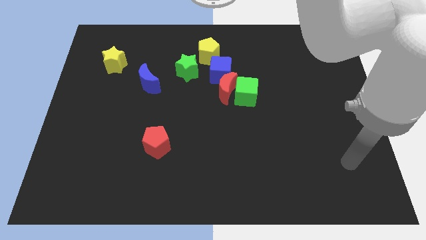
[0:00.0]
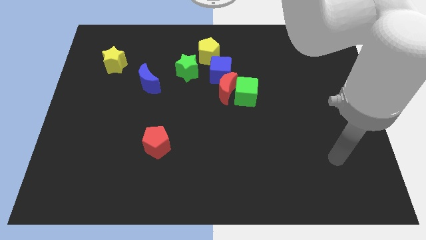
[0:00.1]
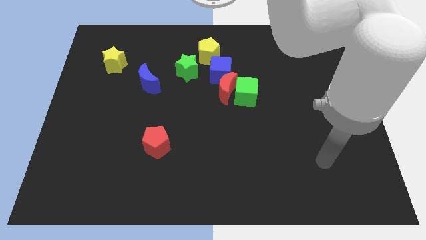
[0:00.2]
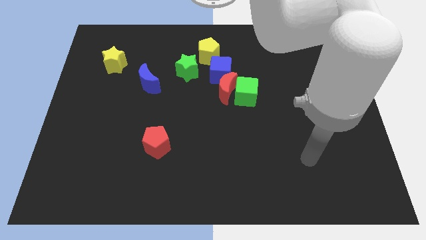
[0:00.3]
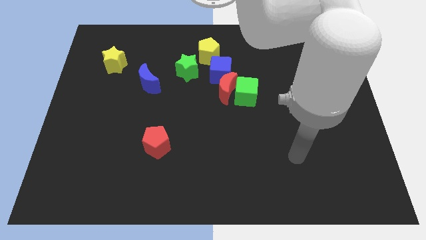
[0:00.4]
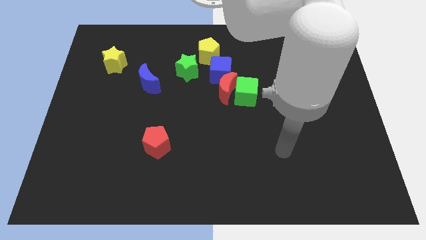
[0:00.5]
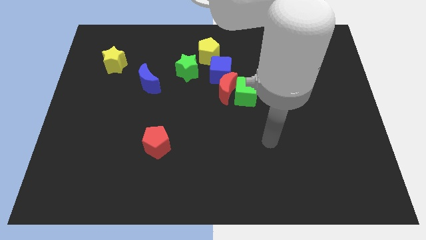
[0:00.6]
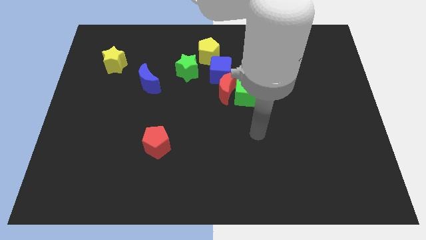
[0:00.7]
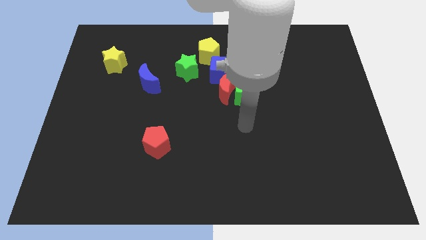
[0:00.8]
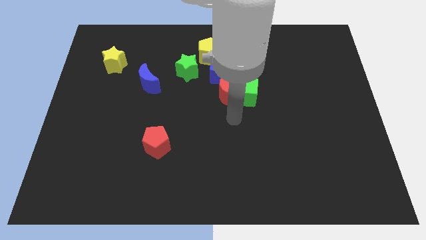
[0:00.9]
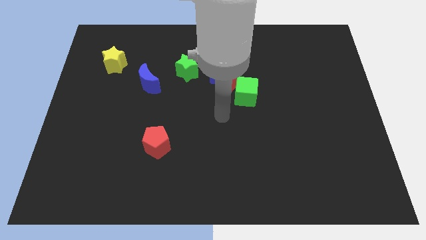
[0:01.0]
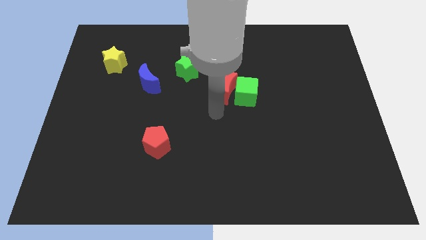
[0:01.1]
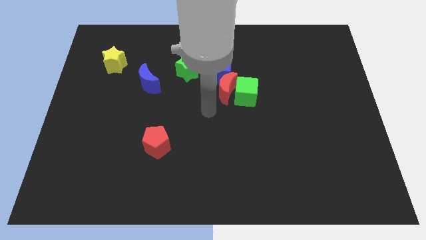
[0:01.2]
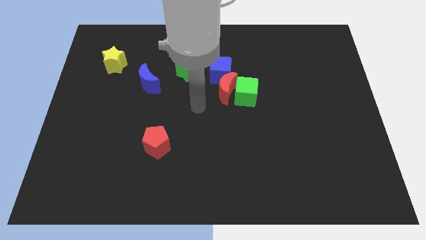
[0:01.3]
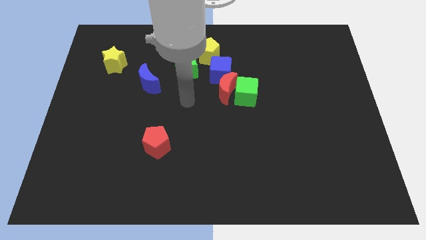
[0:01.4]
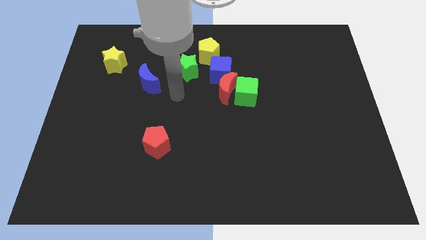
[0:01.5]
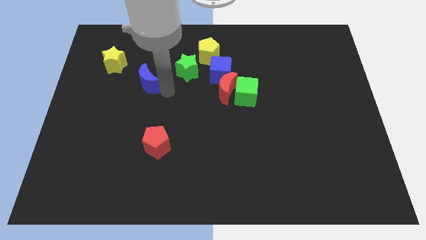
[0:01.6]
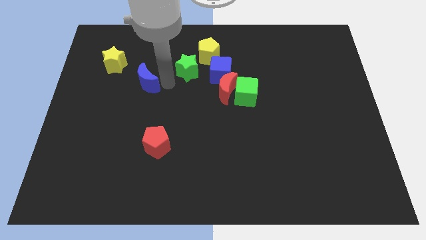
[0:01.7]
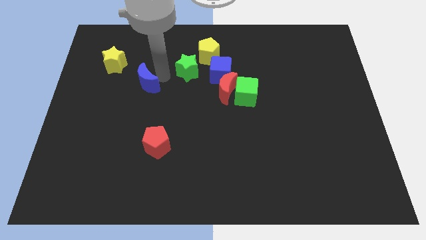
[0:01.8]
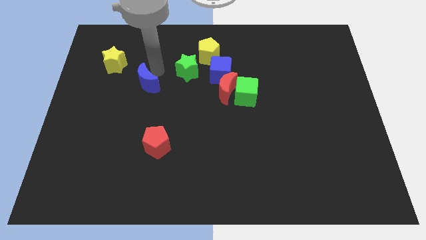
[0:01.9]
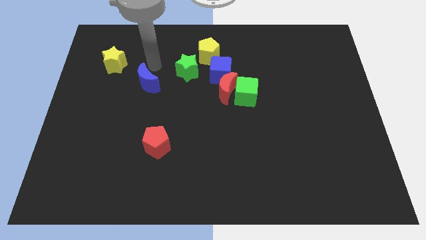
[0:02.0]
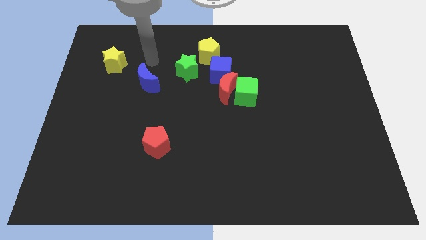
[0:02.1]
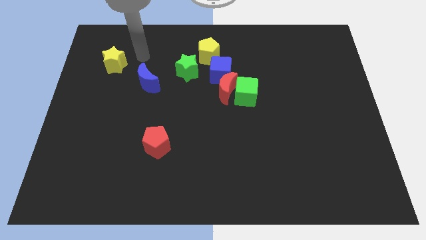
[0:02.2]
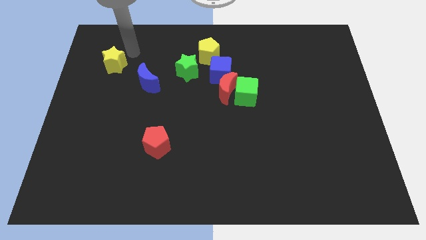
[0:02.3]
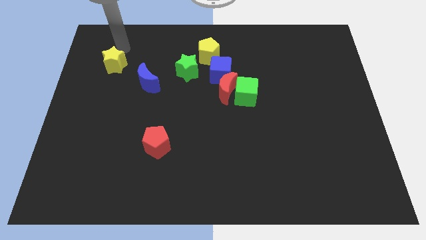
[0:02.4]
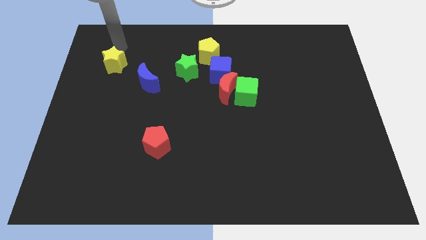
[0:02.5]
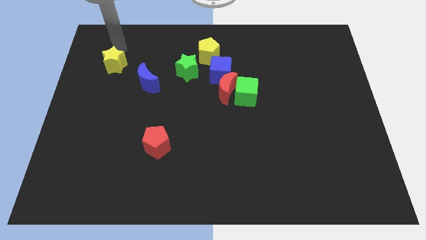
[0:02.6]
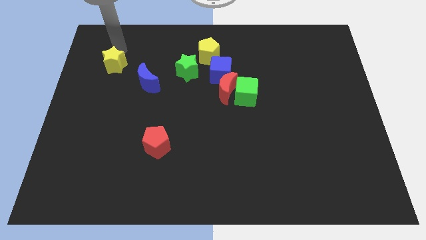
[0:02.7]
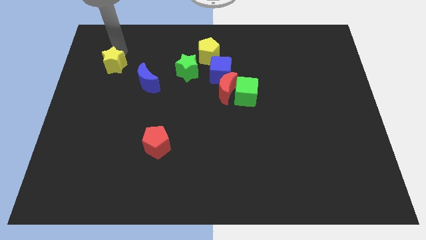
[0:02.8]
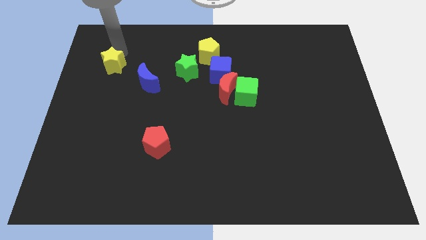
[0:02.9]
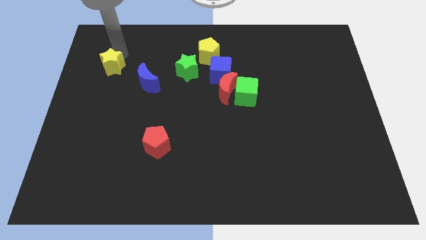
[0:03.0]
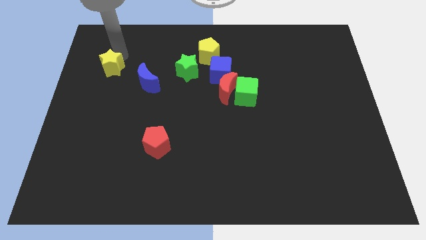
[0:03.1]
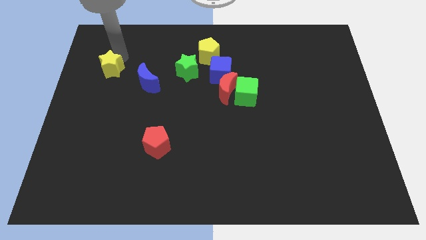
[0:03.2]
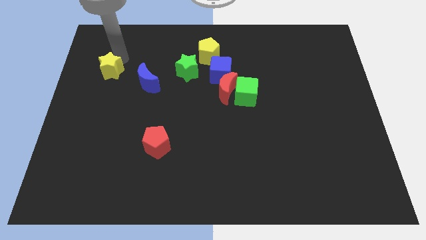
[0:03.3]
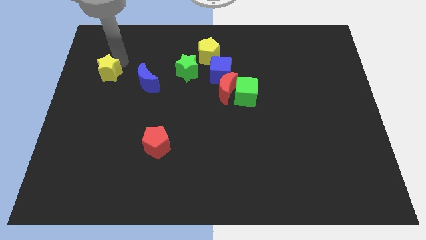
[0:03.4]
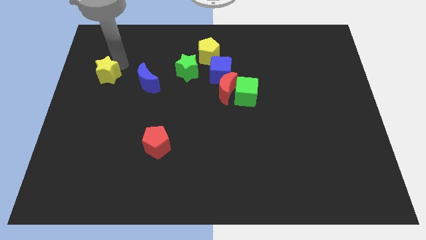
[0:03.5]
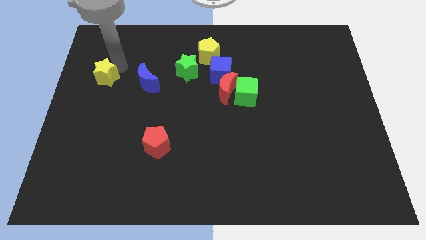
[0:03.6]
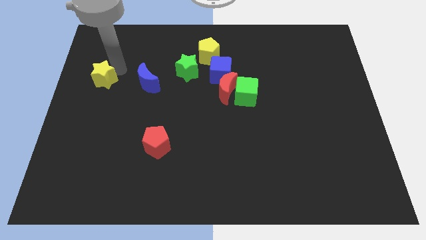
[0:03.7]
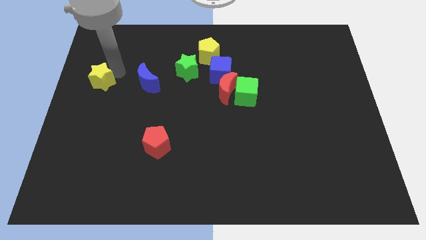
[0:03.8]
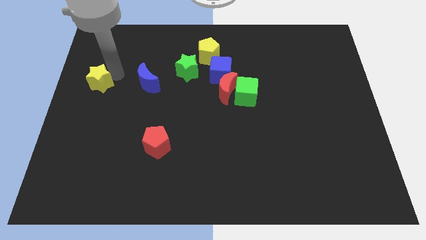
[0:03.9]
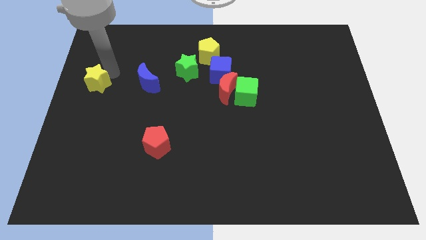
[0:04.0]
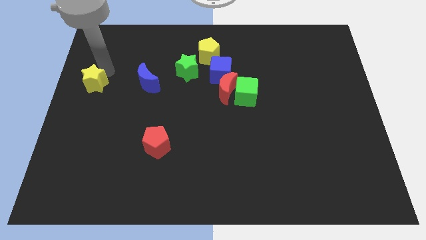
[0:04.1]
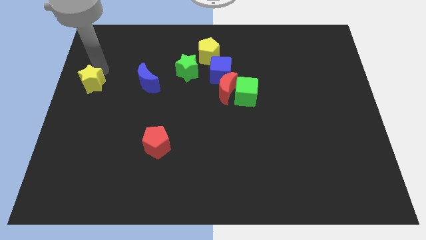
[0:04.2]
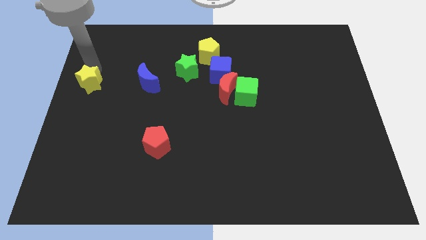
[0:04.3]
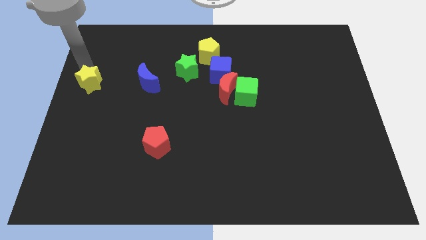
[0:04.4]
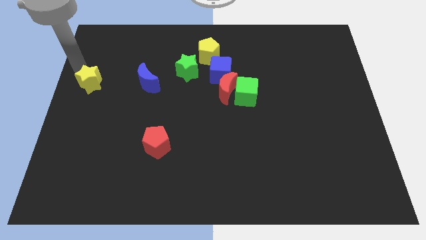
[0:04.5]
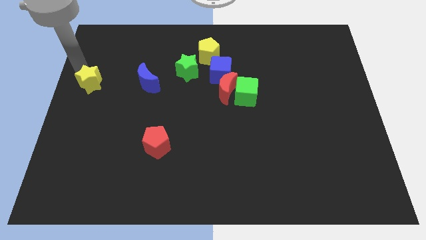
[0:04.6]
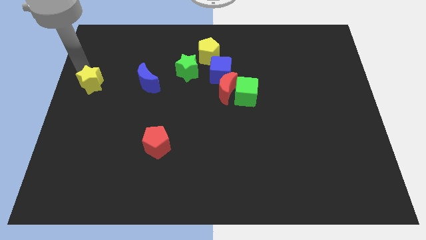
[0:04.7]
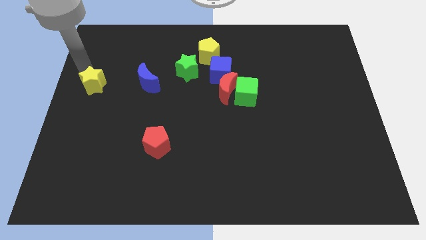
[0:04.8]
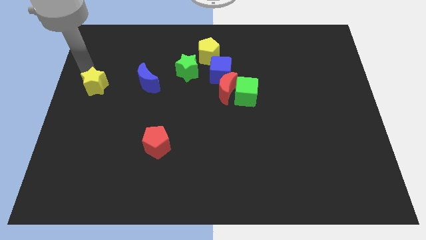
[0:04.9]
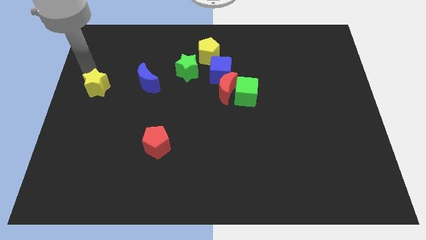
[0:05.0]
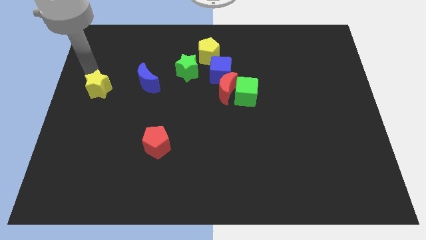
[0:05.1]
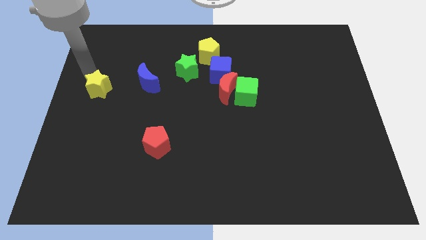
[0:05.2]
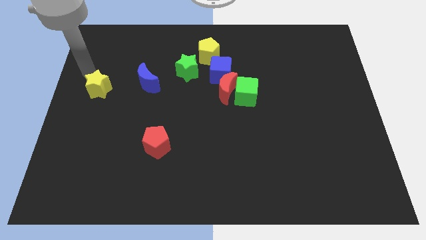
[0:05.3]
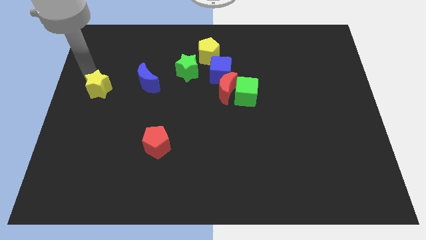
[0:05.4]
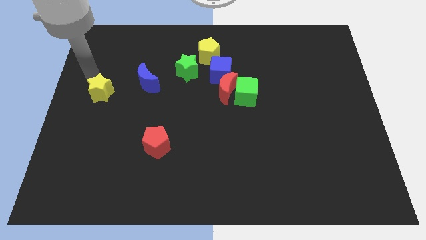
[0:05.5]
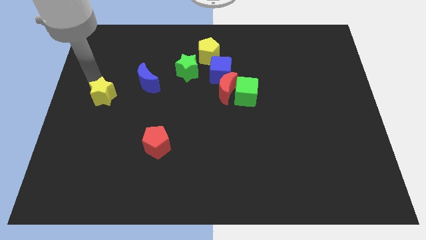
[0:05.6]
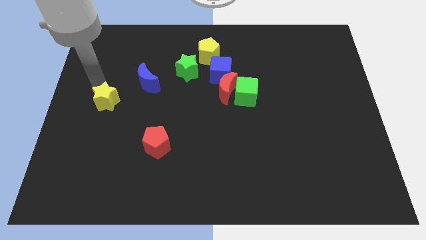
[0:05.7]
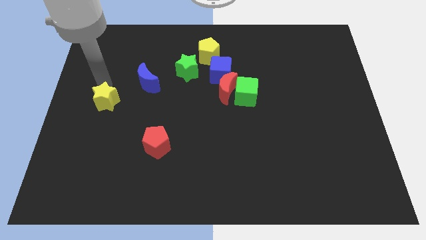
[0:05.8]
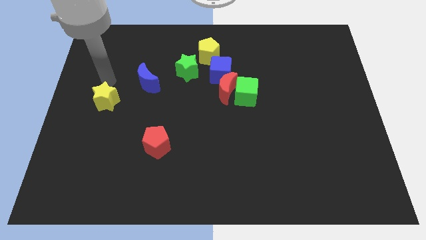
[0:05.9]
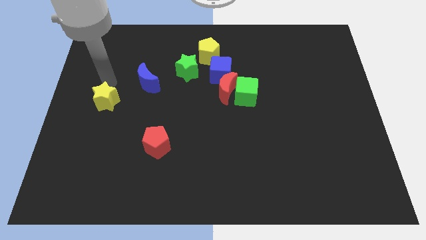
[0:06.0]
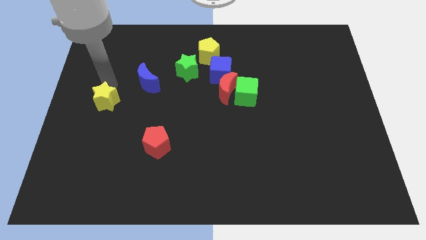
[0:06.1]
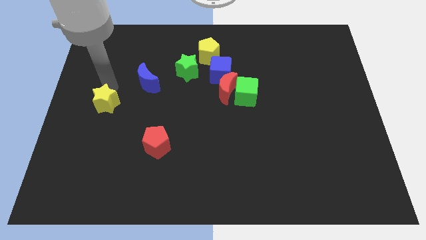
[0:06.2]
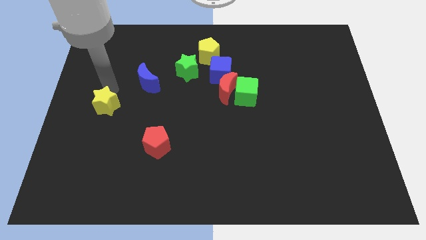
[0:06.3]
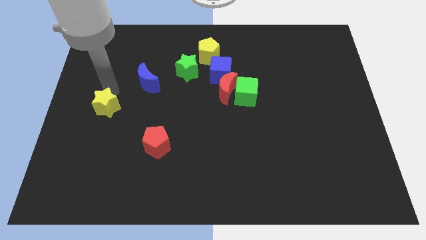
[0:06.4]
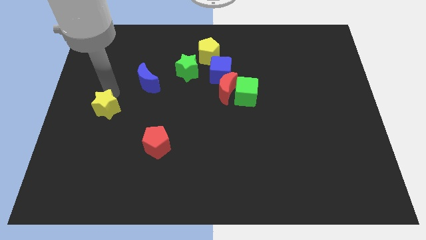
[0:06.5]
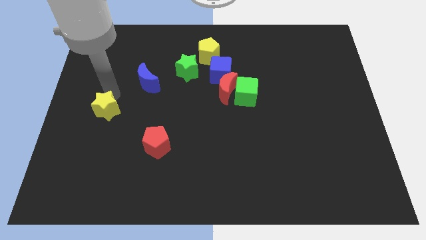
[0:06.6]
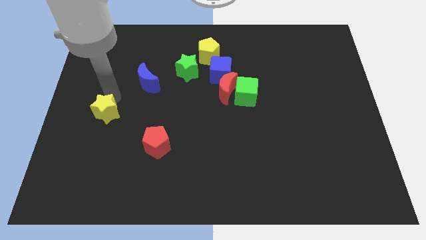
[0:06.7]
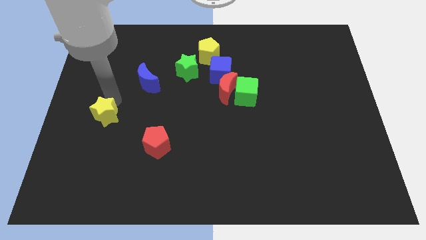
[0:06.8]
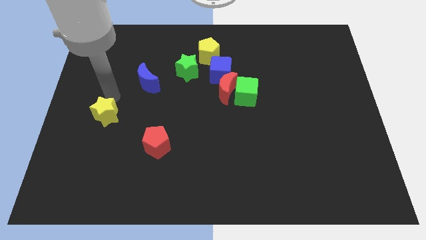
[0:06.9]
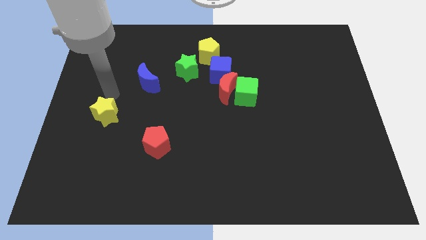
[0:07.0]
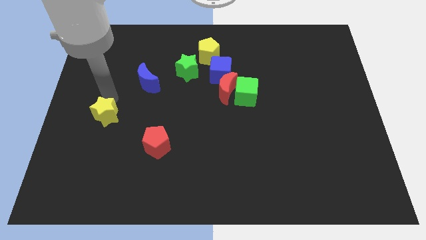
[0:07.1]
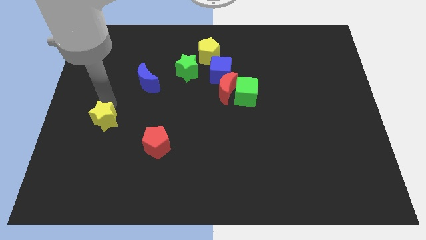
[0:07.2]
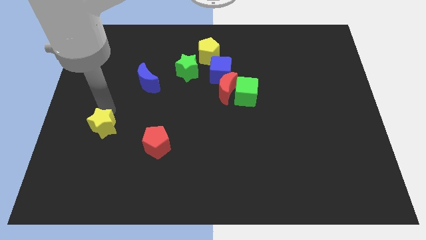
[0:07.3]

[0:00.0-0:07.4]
slide the yellow star down

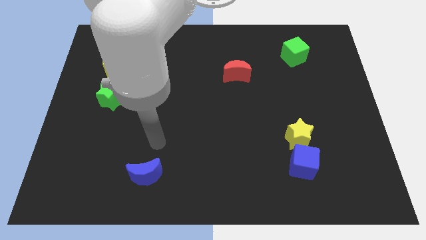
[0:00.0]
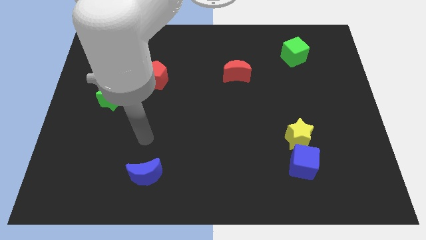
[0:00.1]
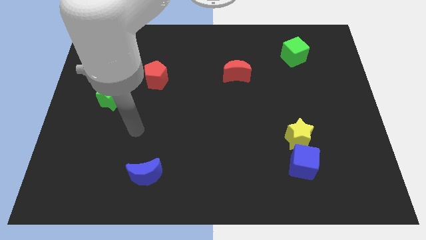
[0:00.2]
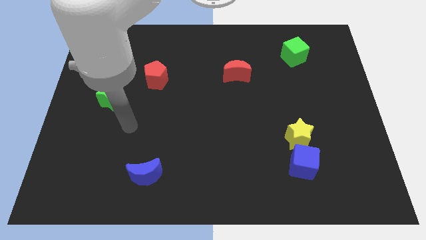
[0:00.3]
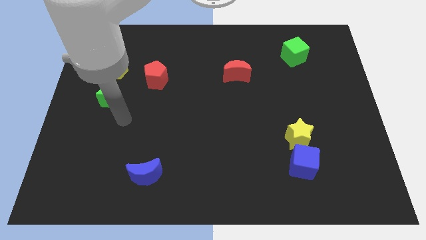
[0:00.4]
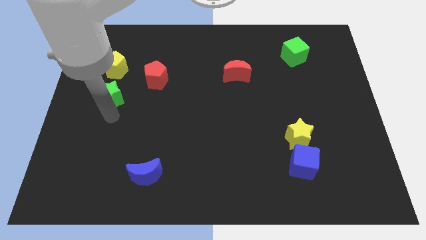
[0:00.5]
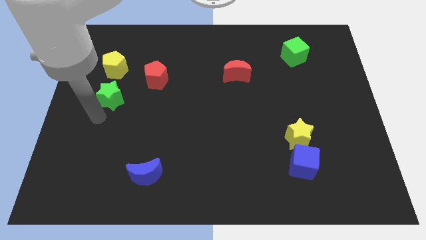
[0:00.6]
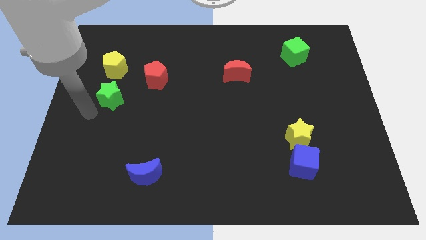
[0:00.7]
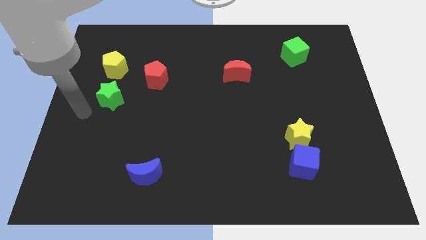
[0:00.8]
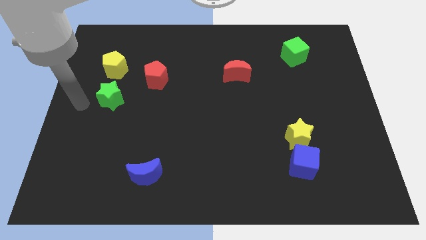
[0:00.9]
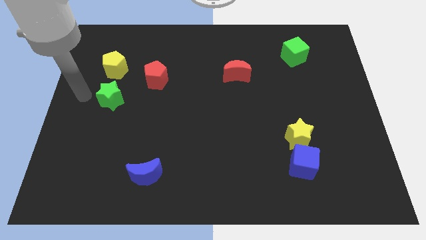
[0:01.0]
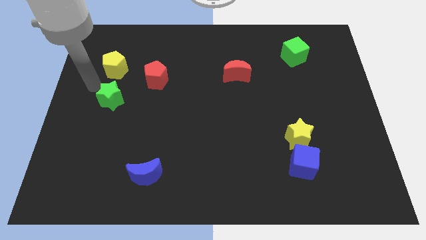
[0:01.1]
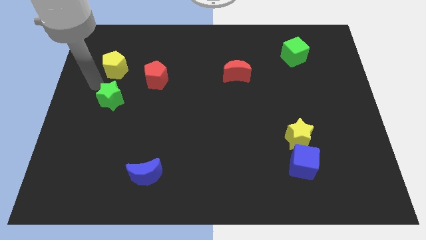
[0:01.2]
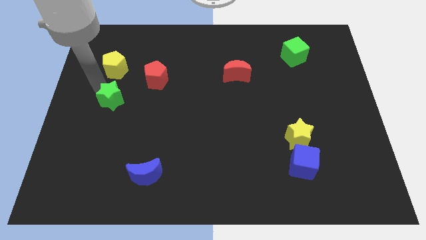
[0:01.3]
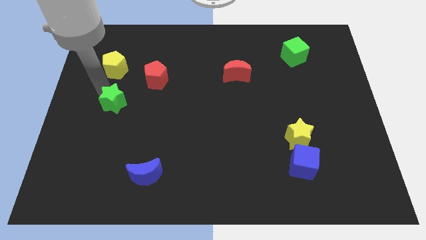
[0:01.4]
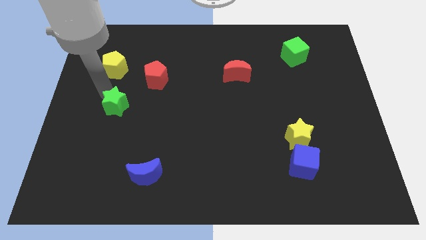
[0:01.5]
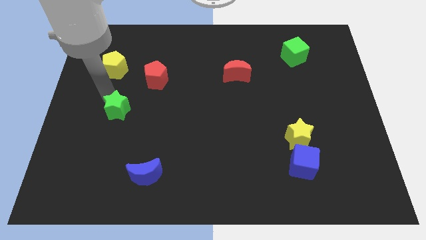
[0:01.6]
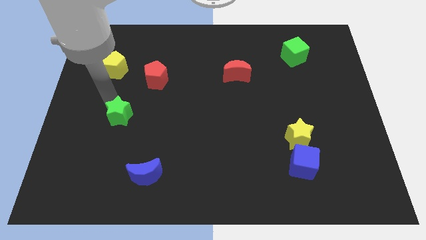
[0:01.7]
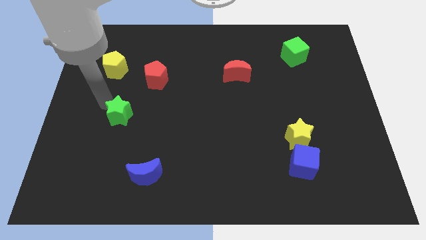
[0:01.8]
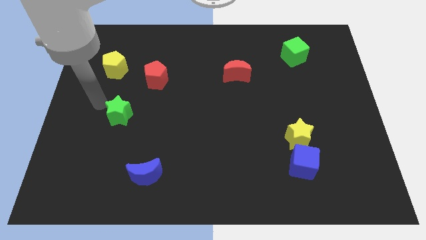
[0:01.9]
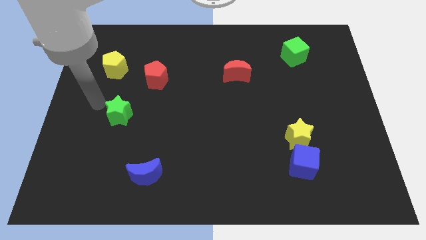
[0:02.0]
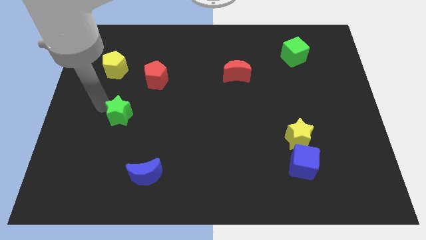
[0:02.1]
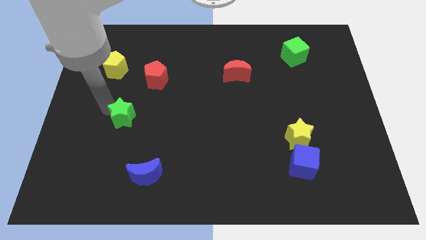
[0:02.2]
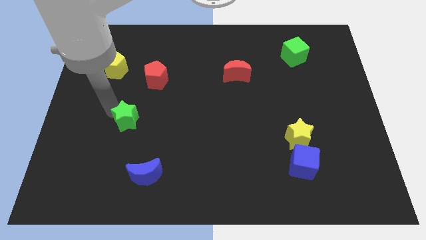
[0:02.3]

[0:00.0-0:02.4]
slightly move the green star down and right
